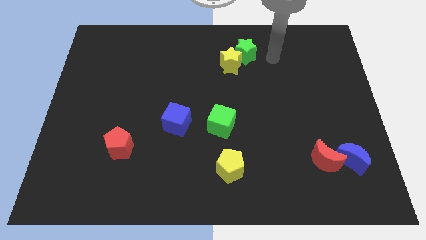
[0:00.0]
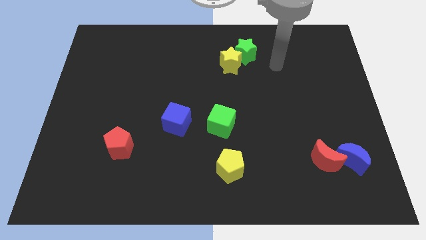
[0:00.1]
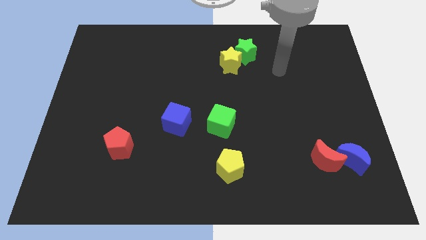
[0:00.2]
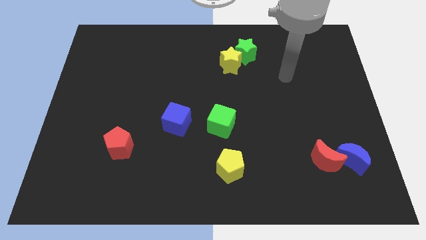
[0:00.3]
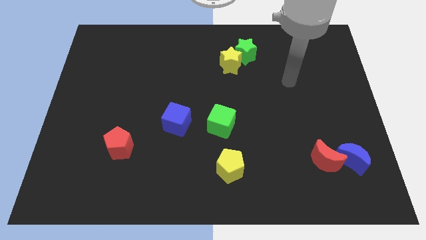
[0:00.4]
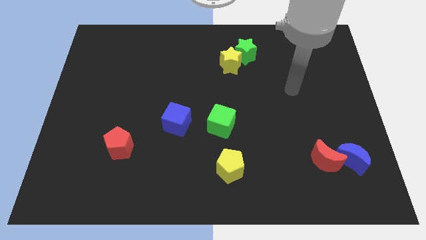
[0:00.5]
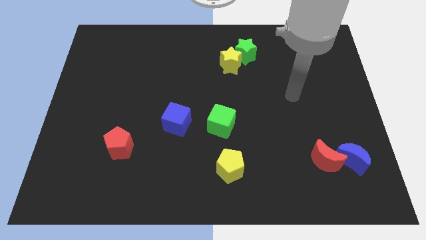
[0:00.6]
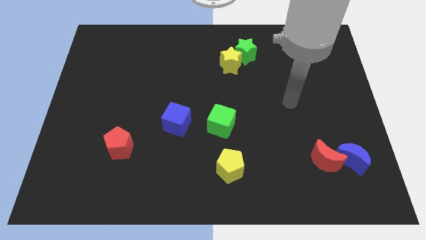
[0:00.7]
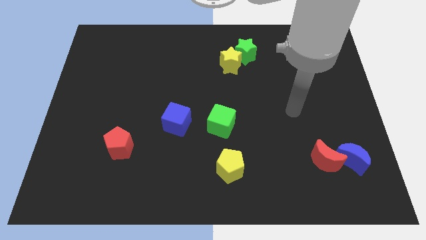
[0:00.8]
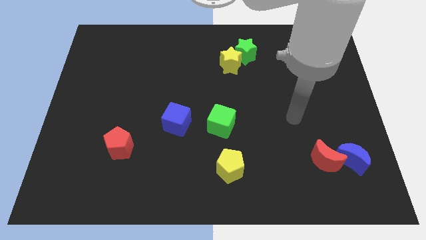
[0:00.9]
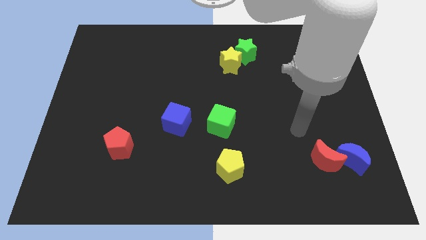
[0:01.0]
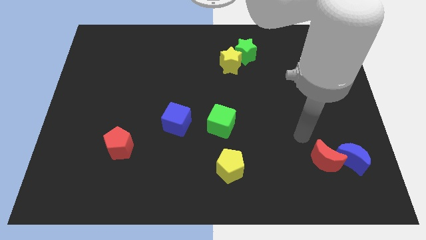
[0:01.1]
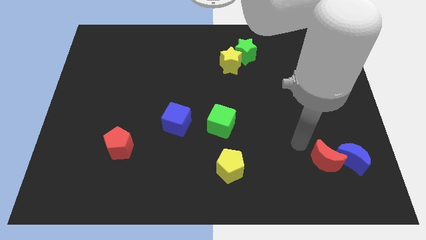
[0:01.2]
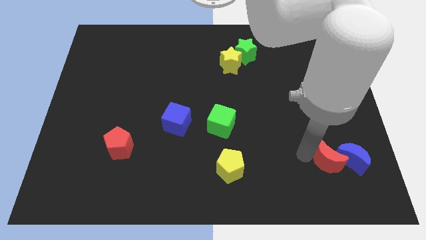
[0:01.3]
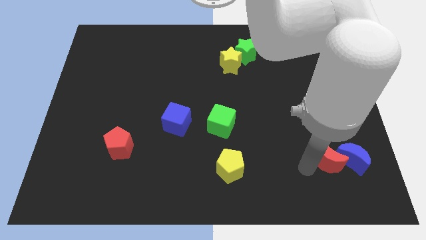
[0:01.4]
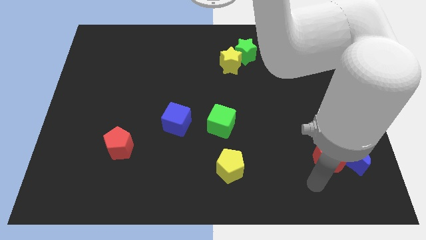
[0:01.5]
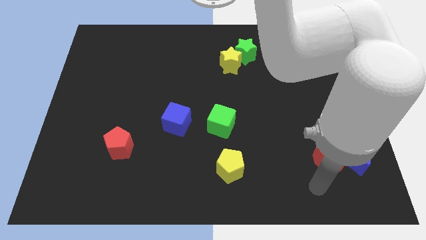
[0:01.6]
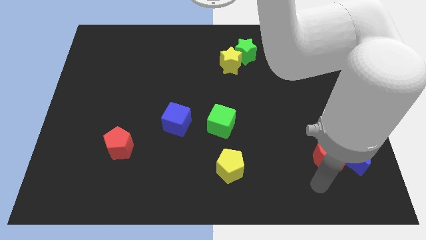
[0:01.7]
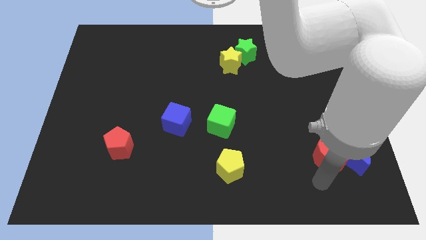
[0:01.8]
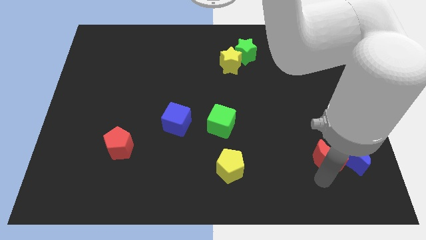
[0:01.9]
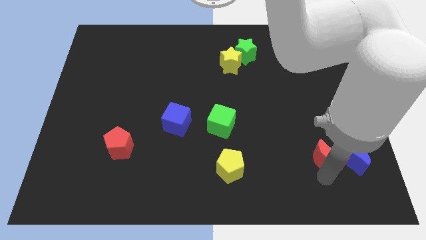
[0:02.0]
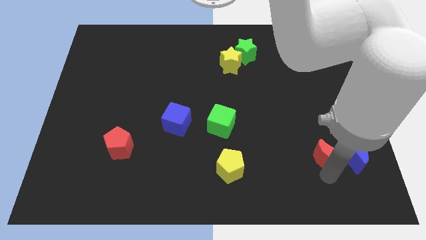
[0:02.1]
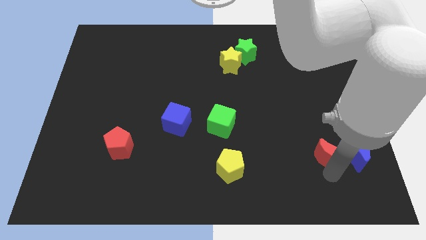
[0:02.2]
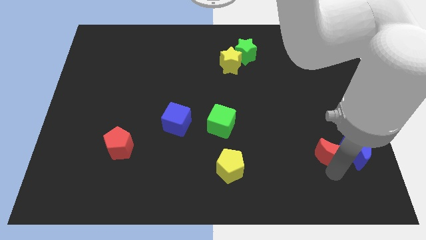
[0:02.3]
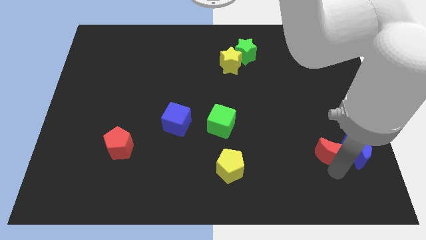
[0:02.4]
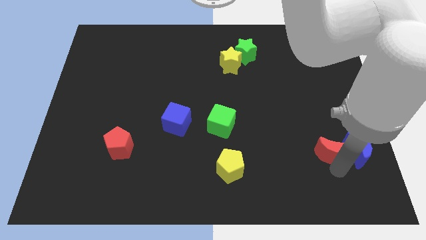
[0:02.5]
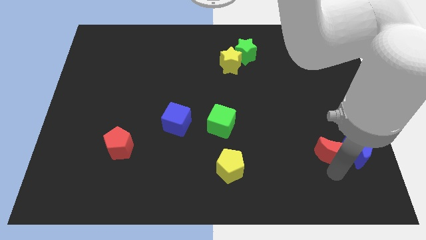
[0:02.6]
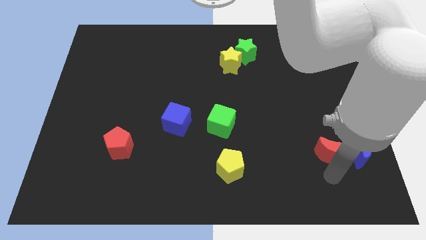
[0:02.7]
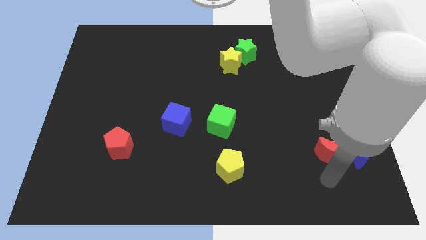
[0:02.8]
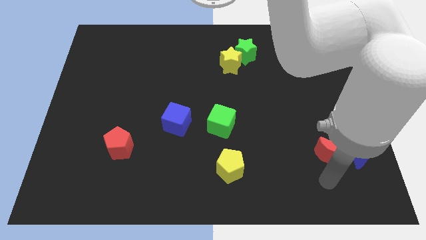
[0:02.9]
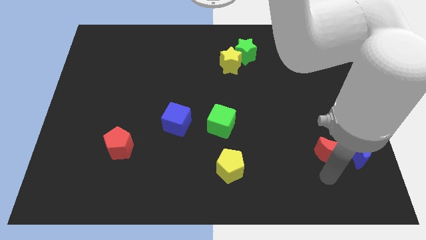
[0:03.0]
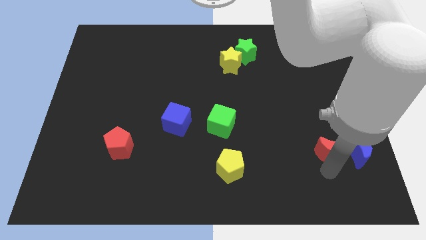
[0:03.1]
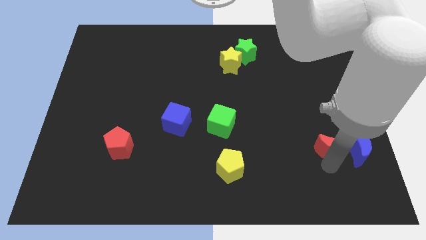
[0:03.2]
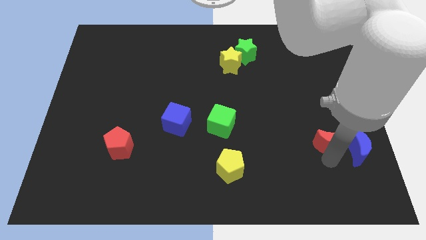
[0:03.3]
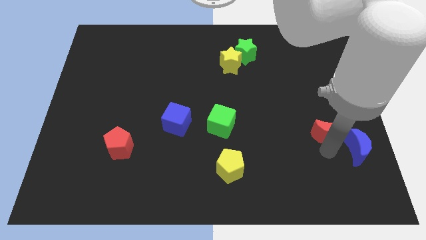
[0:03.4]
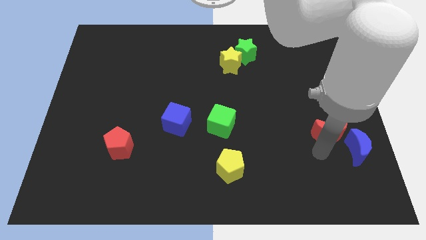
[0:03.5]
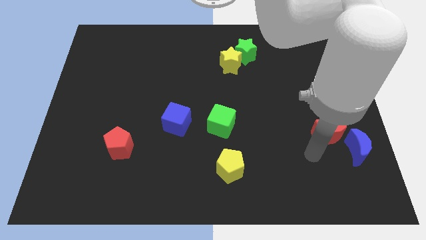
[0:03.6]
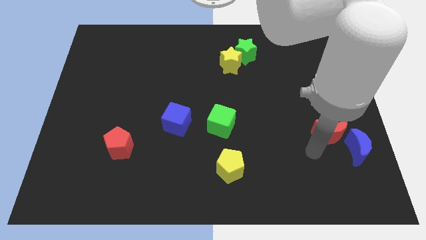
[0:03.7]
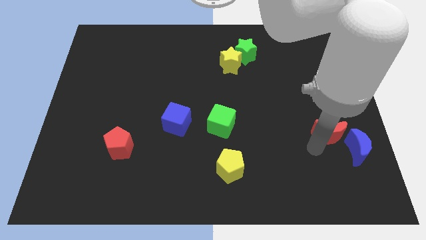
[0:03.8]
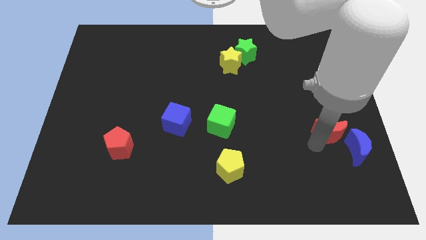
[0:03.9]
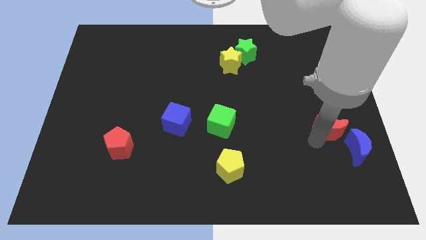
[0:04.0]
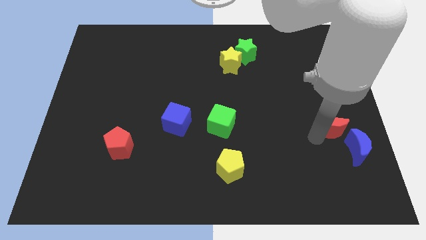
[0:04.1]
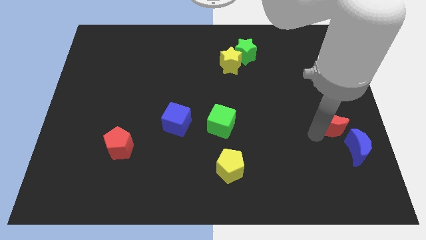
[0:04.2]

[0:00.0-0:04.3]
slide the red moon to the top of the blue moon

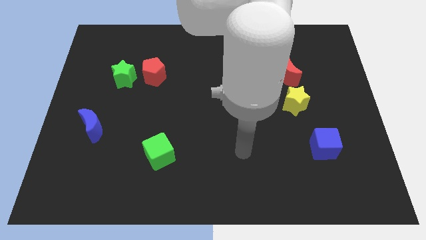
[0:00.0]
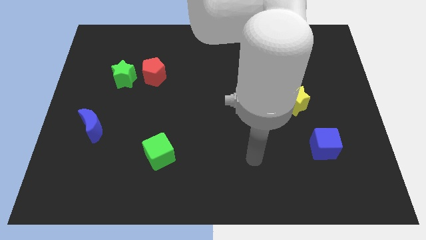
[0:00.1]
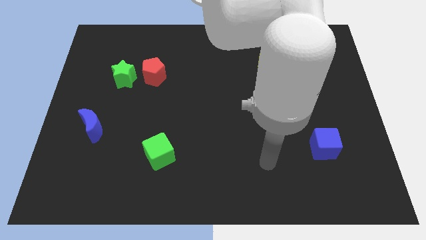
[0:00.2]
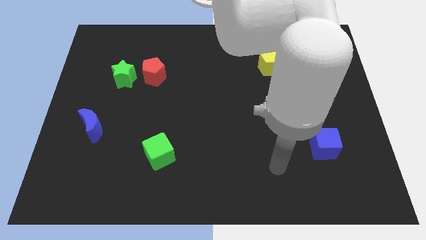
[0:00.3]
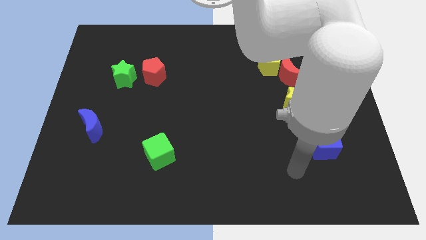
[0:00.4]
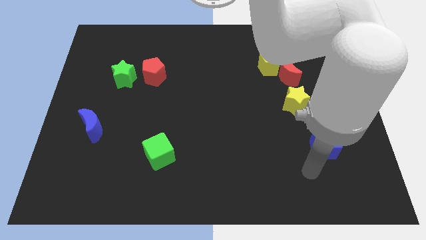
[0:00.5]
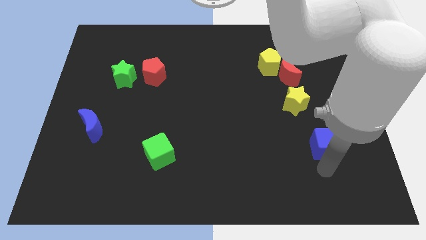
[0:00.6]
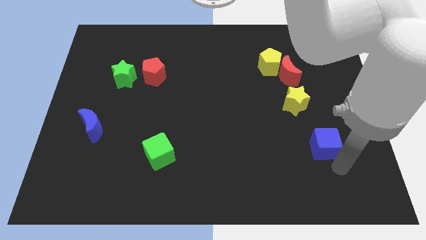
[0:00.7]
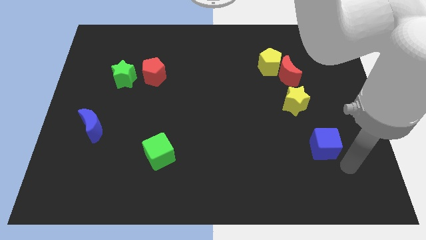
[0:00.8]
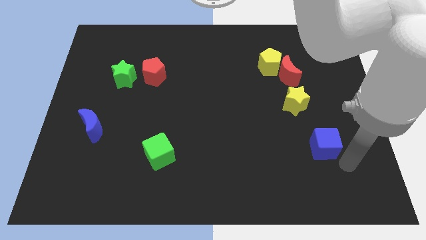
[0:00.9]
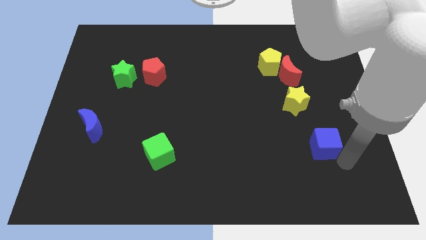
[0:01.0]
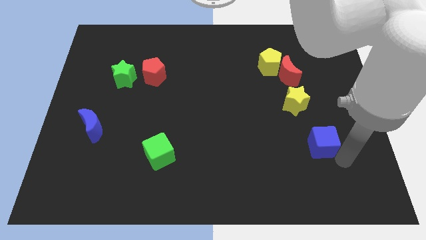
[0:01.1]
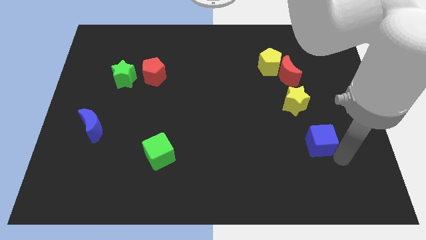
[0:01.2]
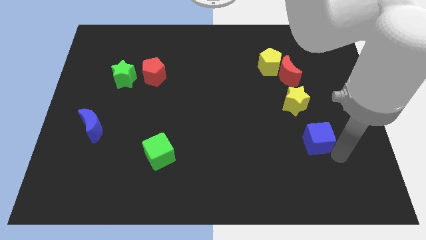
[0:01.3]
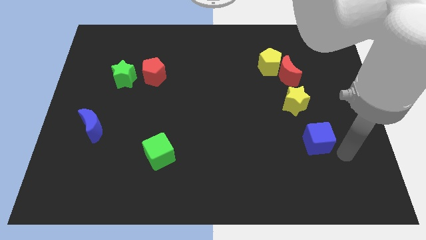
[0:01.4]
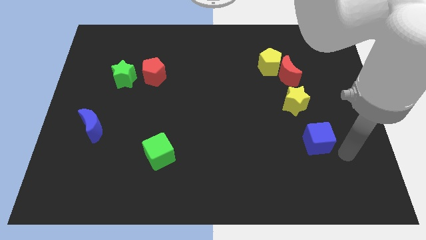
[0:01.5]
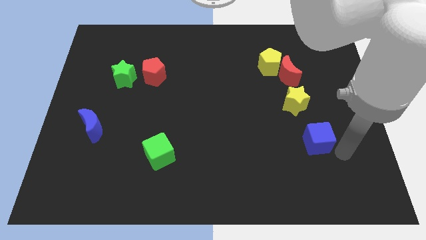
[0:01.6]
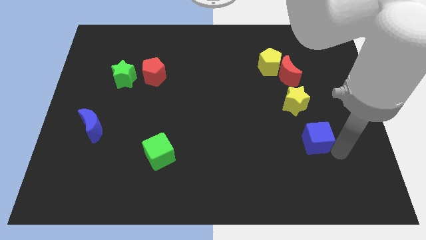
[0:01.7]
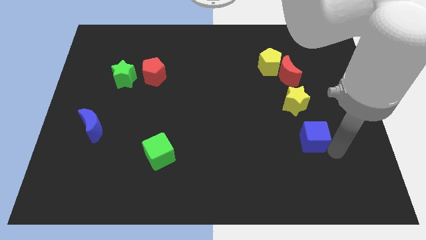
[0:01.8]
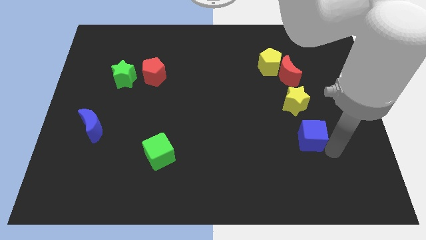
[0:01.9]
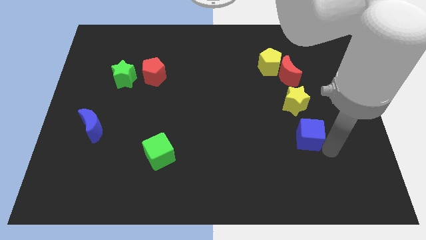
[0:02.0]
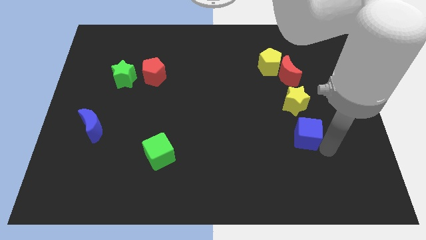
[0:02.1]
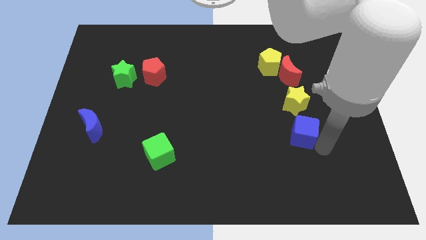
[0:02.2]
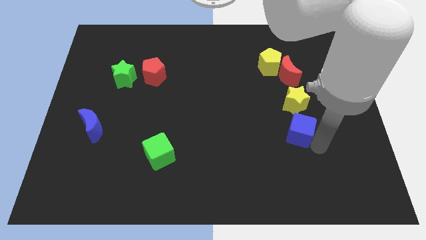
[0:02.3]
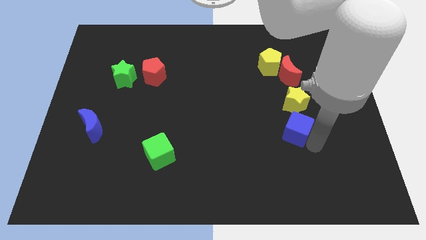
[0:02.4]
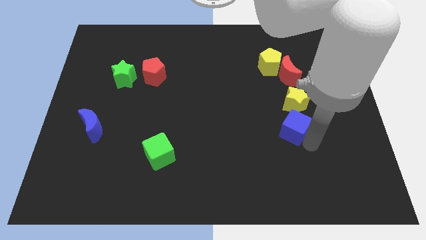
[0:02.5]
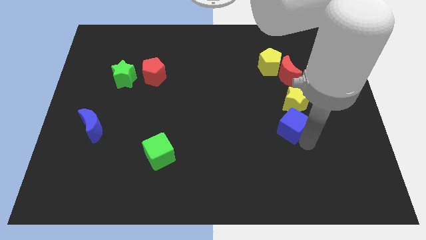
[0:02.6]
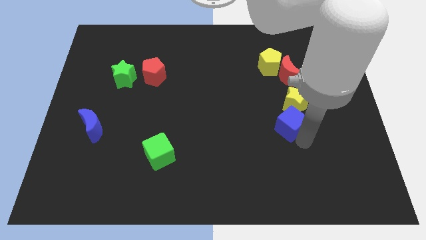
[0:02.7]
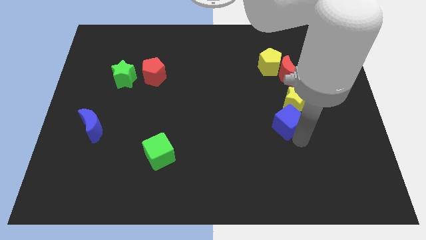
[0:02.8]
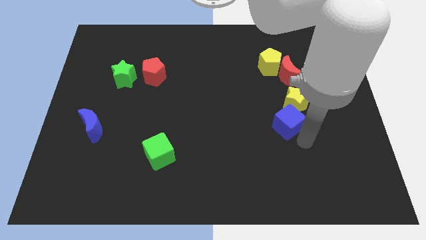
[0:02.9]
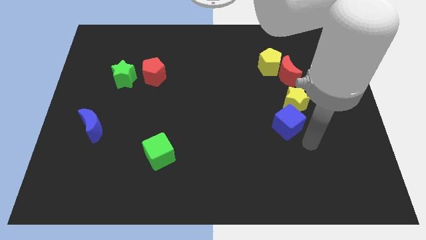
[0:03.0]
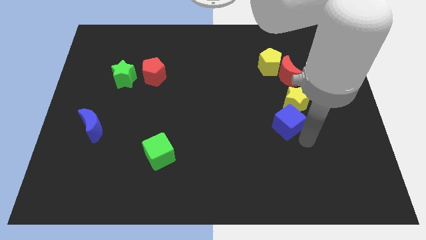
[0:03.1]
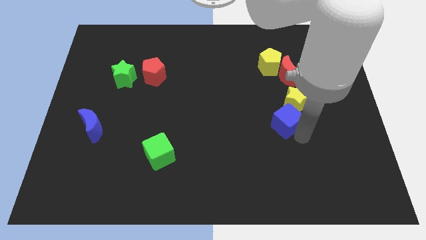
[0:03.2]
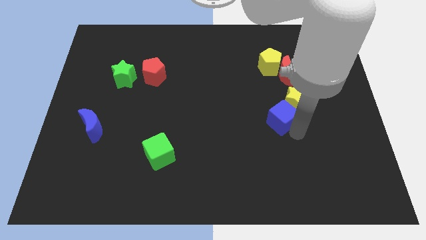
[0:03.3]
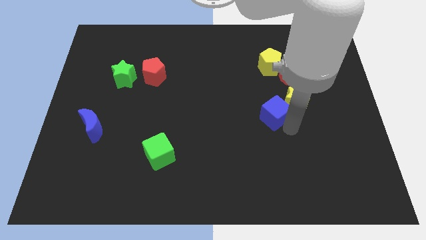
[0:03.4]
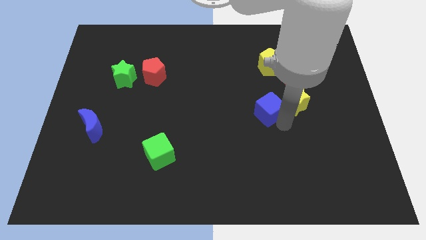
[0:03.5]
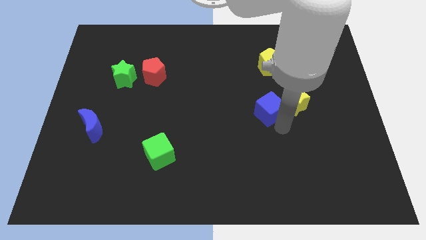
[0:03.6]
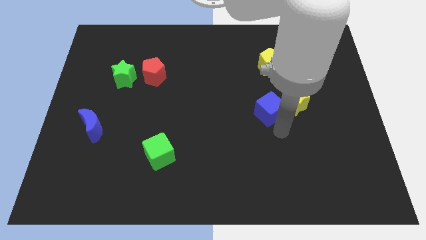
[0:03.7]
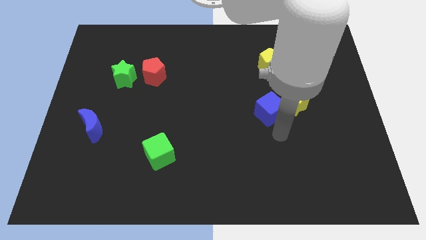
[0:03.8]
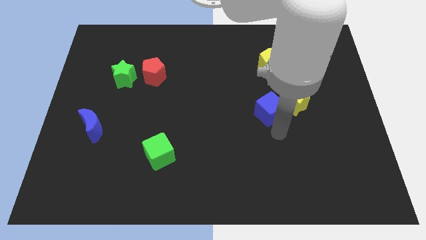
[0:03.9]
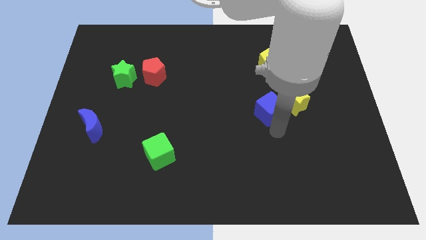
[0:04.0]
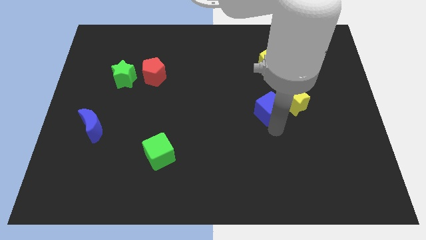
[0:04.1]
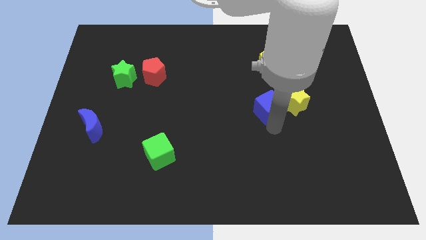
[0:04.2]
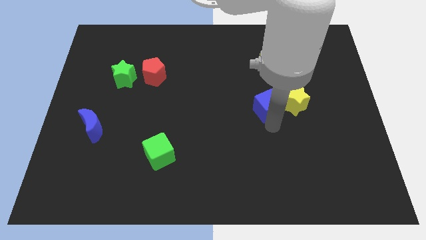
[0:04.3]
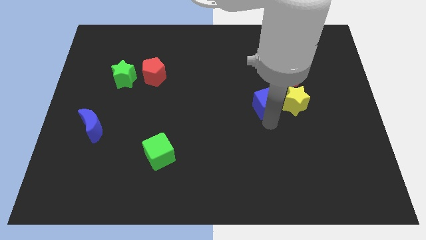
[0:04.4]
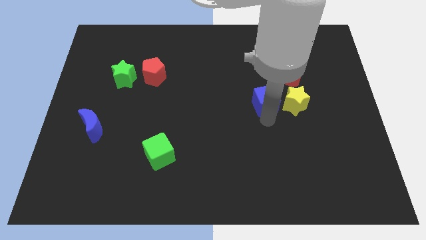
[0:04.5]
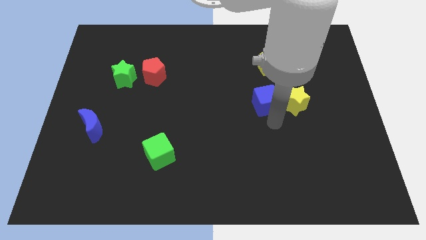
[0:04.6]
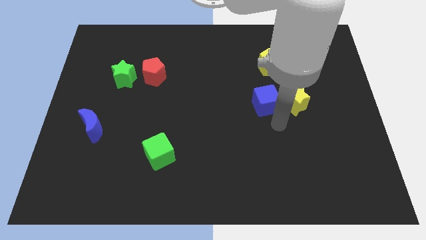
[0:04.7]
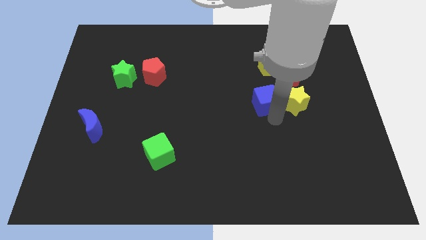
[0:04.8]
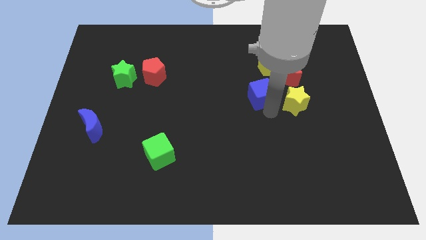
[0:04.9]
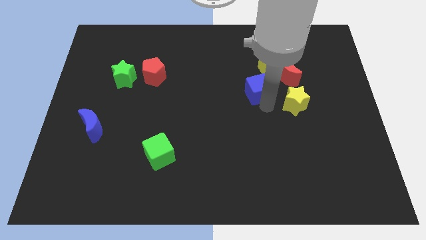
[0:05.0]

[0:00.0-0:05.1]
slide the blue cube diagonally down and to the left of the yellow pentagon
